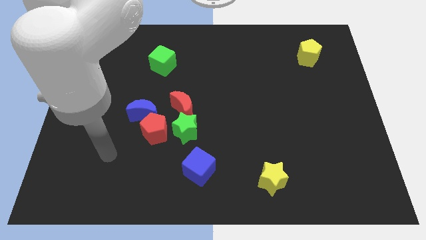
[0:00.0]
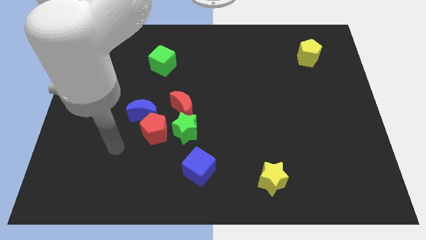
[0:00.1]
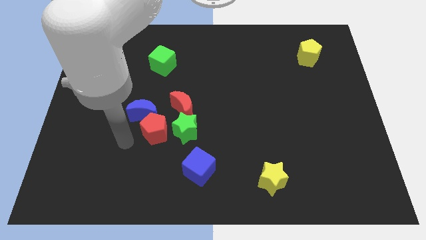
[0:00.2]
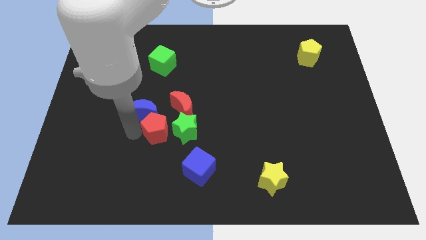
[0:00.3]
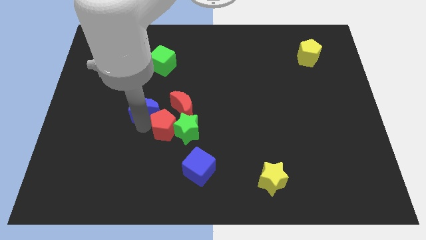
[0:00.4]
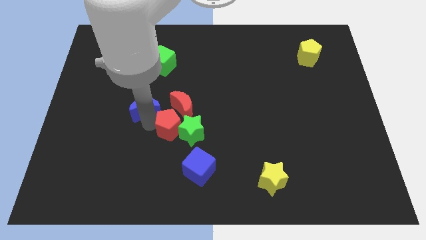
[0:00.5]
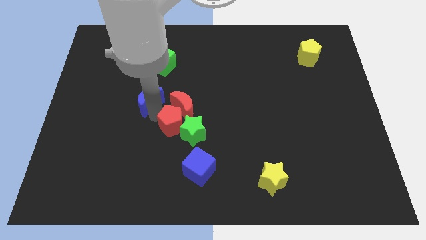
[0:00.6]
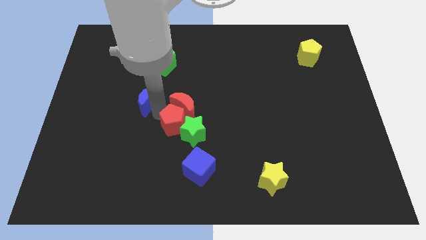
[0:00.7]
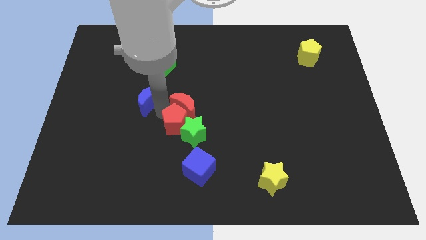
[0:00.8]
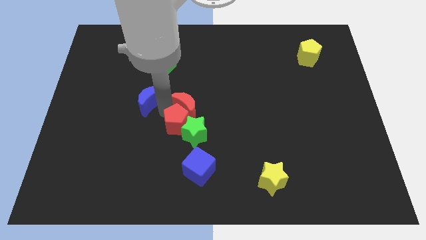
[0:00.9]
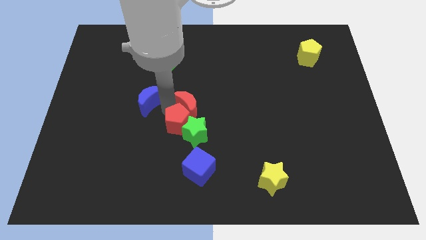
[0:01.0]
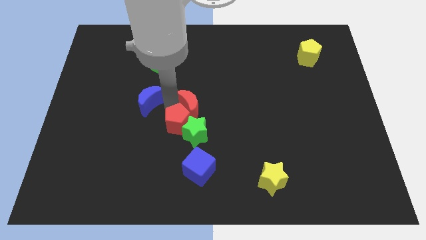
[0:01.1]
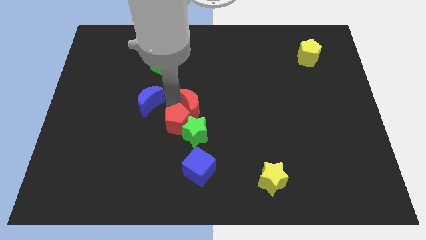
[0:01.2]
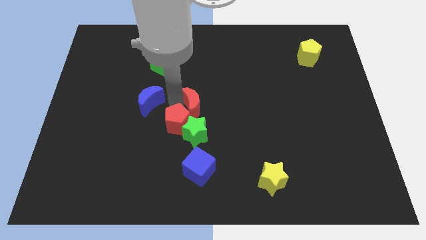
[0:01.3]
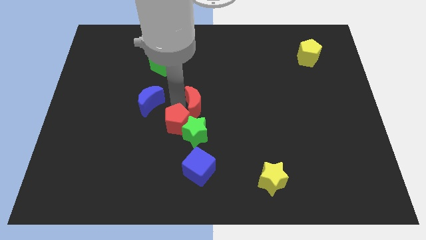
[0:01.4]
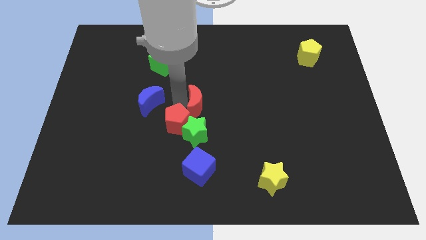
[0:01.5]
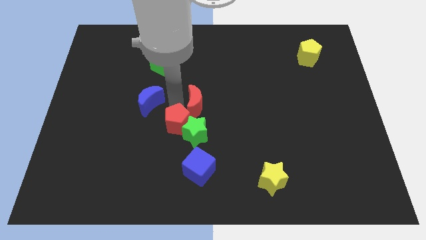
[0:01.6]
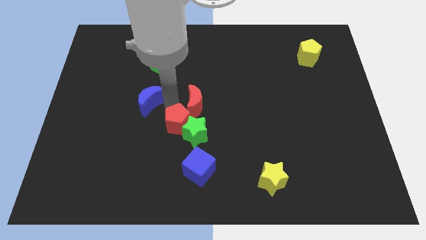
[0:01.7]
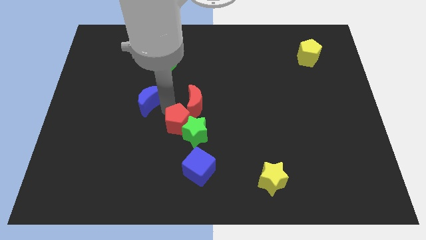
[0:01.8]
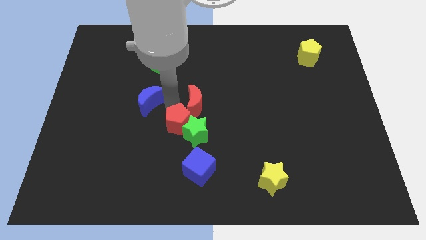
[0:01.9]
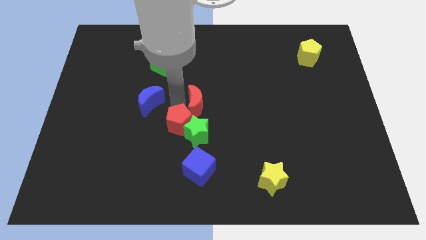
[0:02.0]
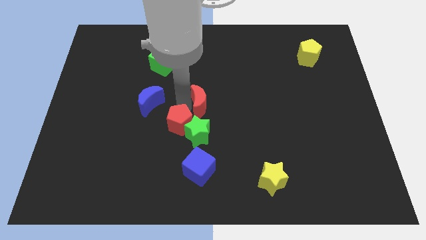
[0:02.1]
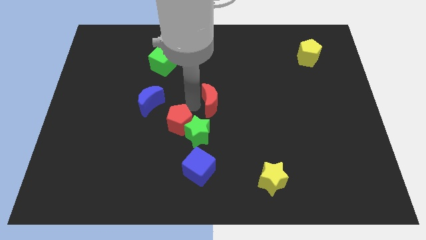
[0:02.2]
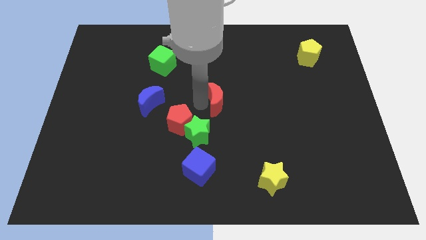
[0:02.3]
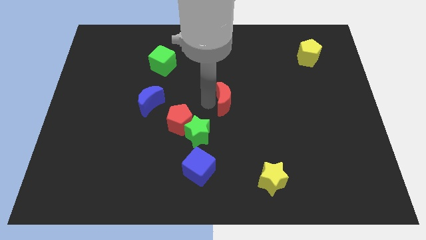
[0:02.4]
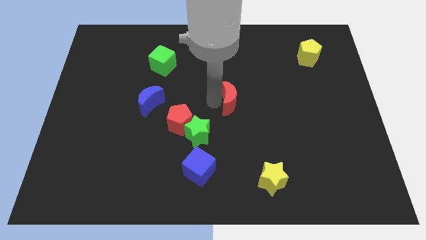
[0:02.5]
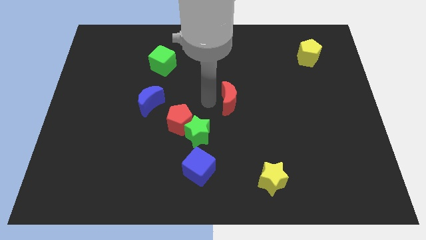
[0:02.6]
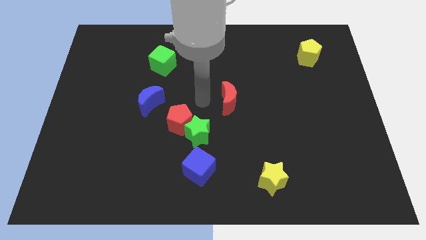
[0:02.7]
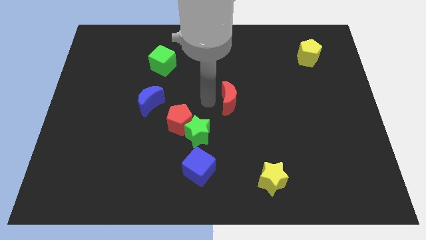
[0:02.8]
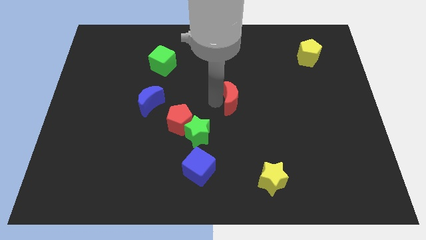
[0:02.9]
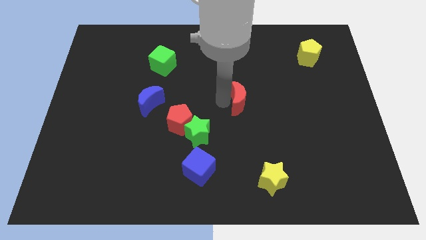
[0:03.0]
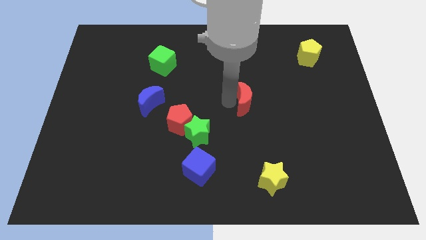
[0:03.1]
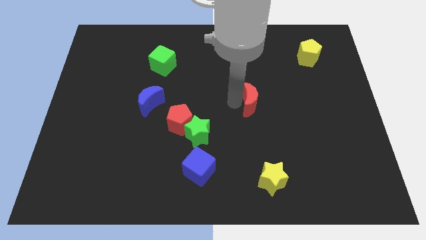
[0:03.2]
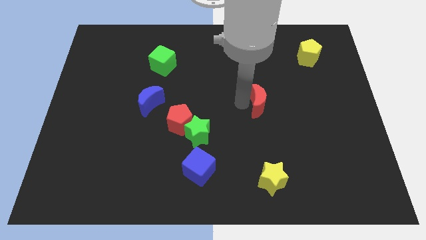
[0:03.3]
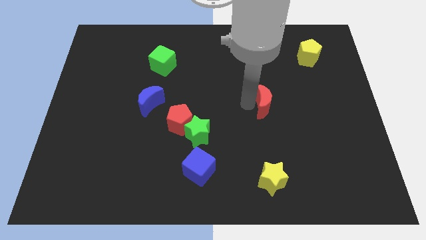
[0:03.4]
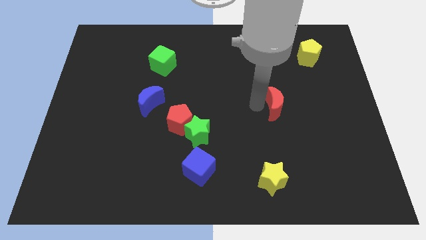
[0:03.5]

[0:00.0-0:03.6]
slide the red moon right

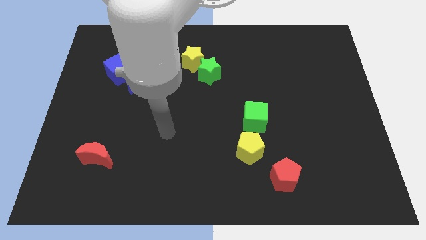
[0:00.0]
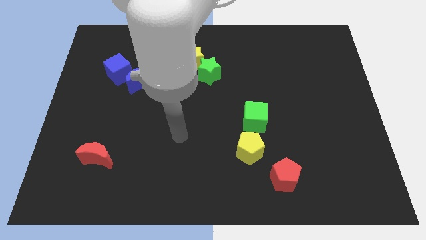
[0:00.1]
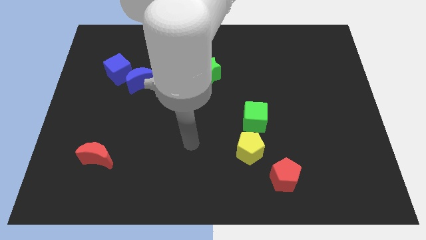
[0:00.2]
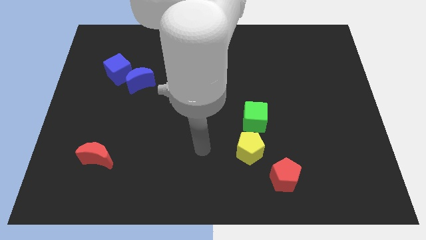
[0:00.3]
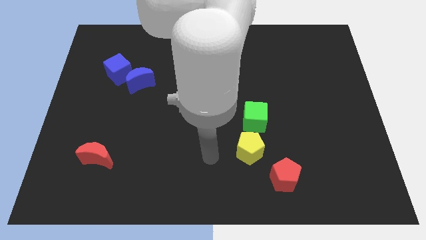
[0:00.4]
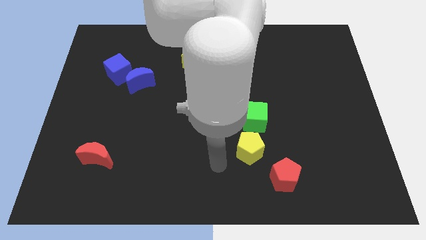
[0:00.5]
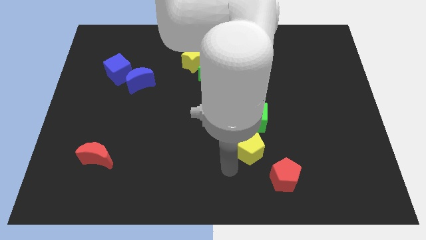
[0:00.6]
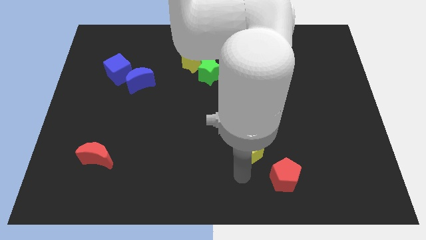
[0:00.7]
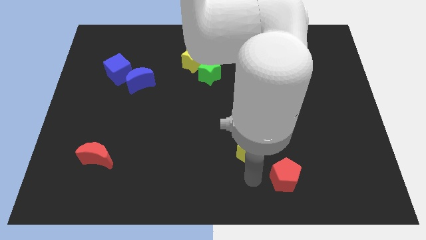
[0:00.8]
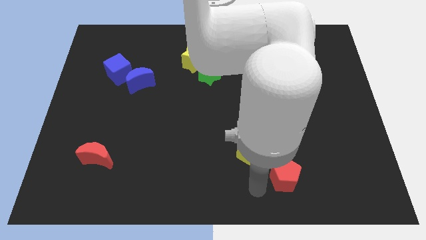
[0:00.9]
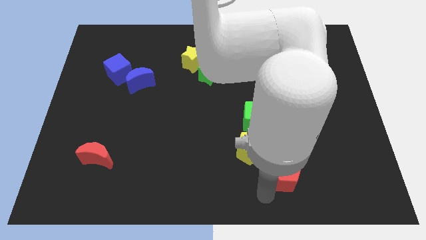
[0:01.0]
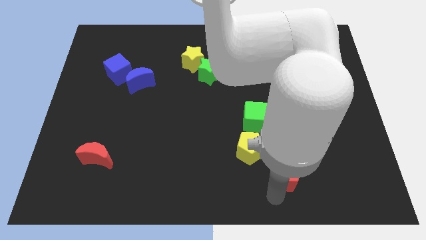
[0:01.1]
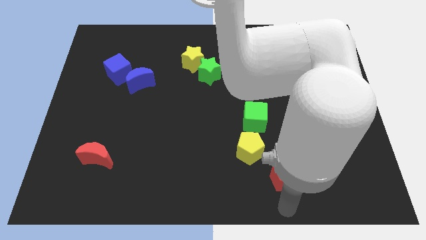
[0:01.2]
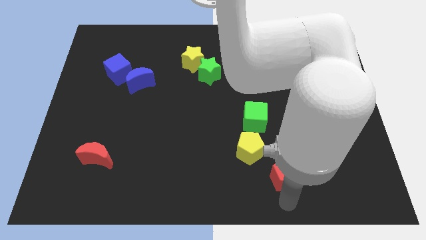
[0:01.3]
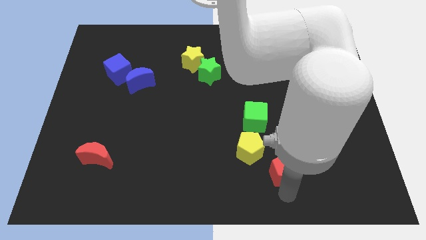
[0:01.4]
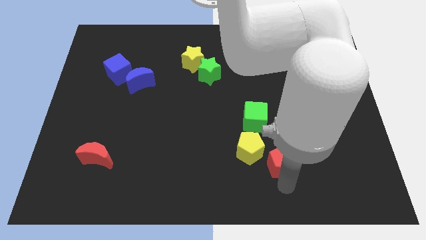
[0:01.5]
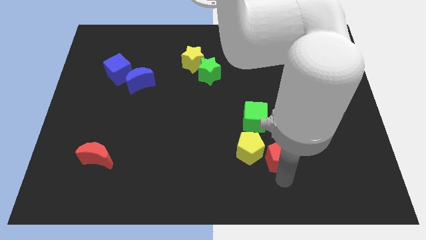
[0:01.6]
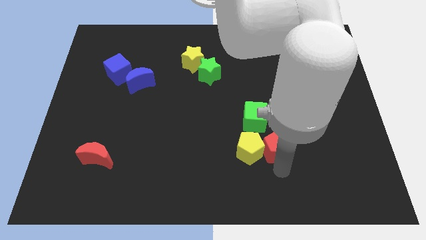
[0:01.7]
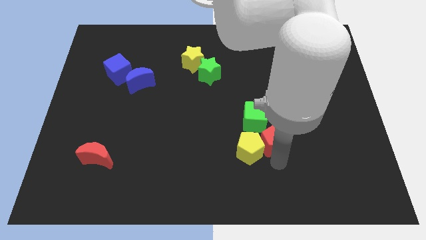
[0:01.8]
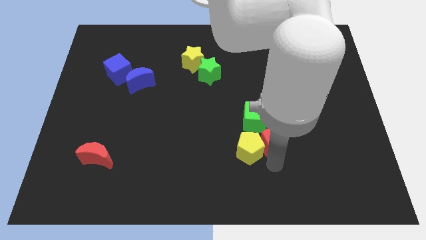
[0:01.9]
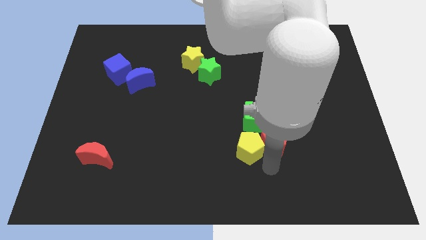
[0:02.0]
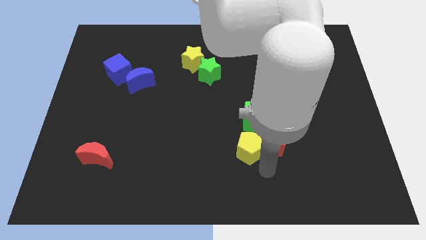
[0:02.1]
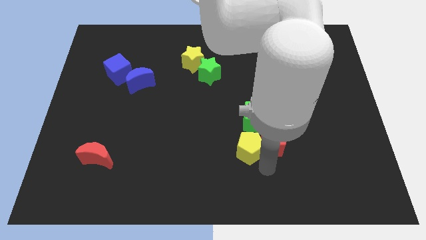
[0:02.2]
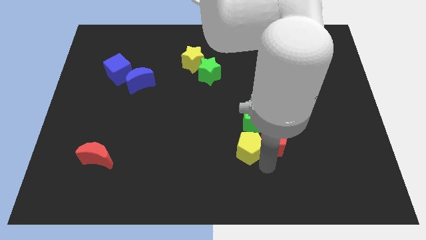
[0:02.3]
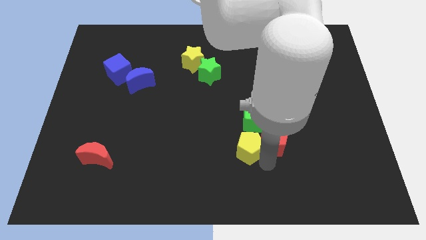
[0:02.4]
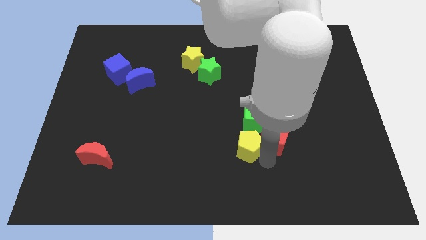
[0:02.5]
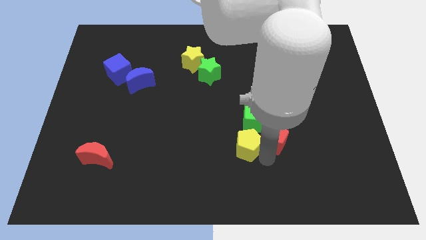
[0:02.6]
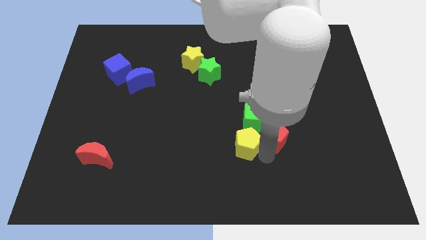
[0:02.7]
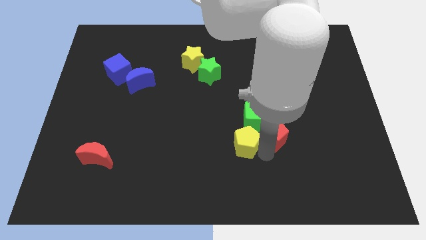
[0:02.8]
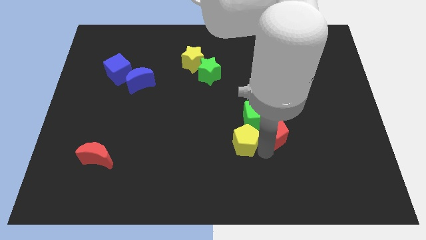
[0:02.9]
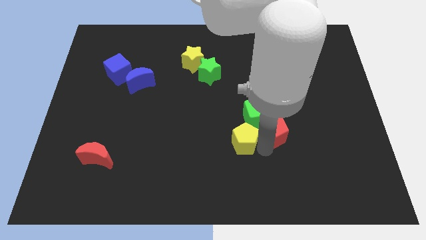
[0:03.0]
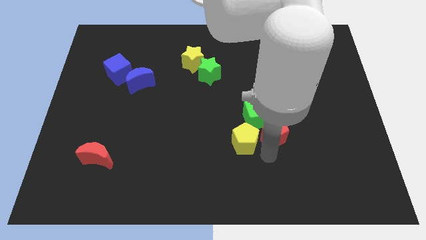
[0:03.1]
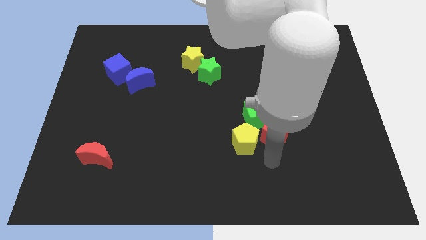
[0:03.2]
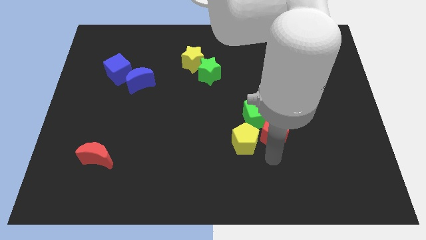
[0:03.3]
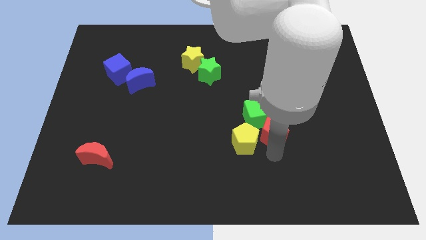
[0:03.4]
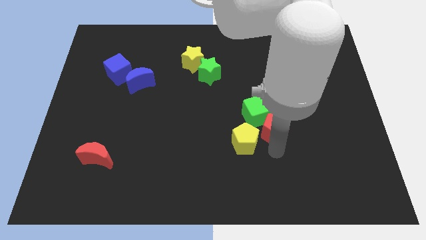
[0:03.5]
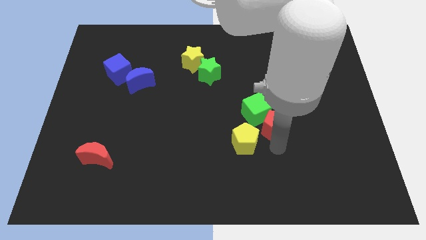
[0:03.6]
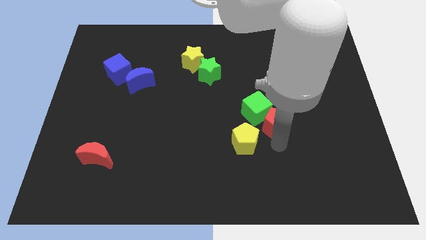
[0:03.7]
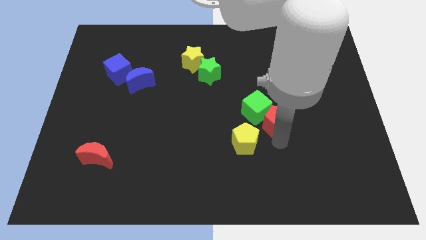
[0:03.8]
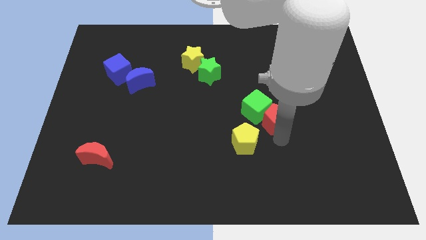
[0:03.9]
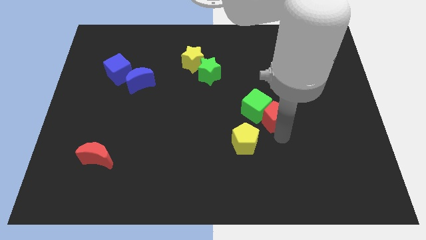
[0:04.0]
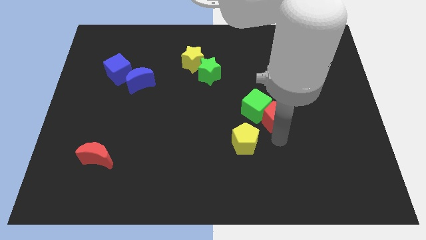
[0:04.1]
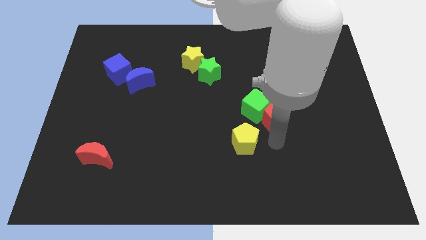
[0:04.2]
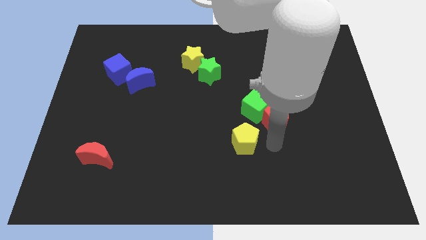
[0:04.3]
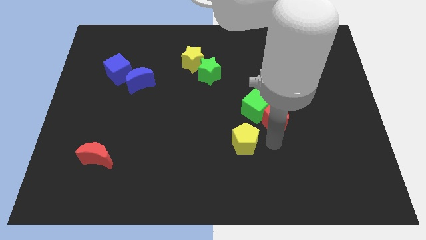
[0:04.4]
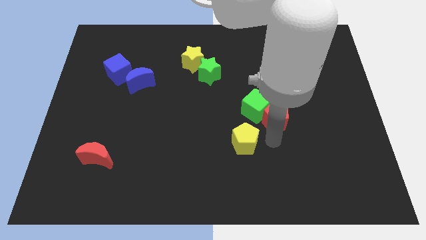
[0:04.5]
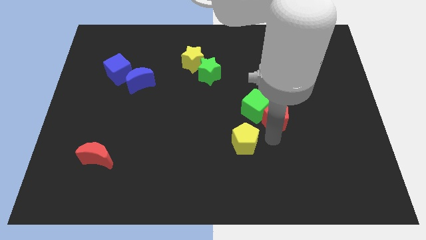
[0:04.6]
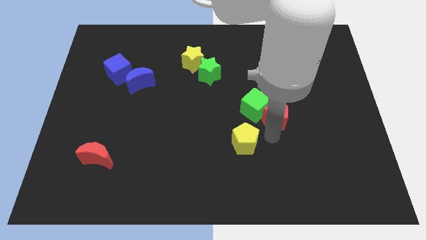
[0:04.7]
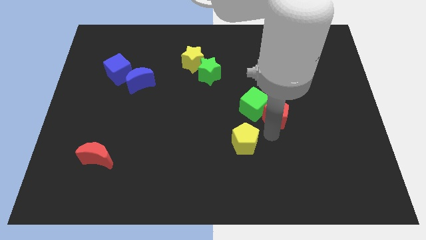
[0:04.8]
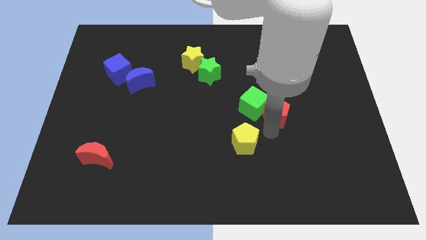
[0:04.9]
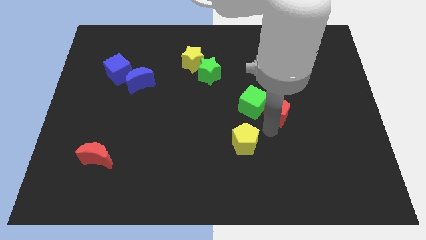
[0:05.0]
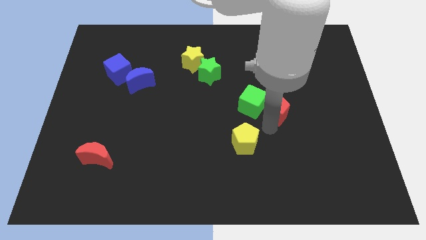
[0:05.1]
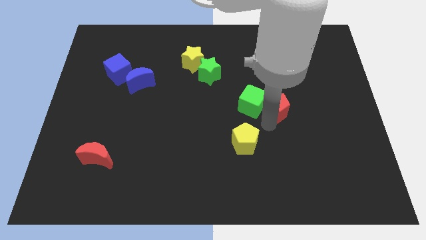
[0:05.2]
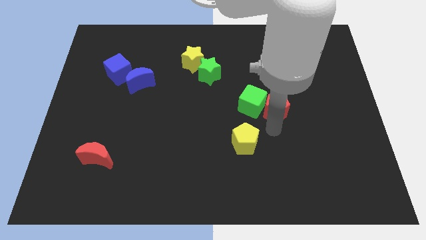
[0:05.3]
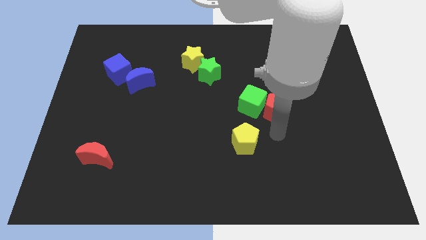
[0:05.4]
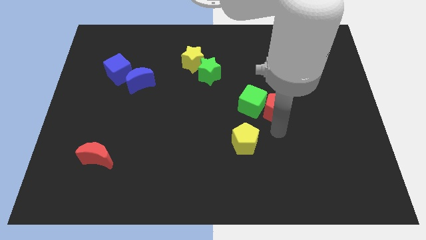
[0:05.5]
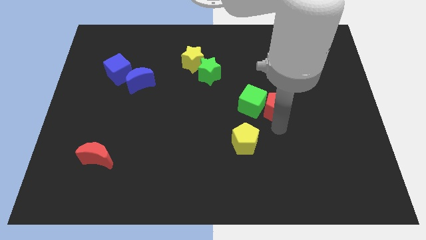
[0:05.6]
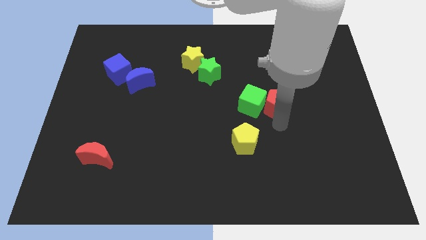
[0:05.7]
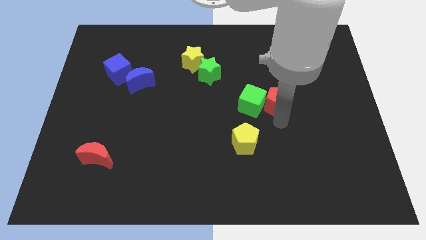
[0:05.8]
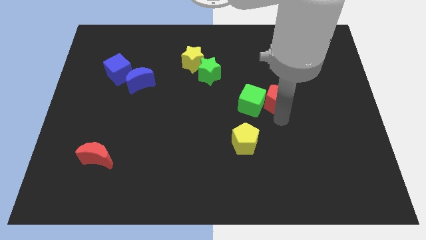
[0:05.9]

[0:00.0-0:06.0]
move the red pentagon upwards
